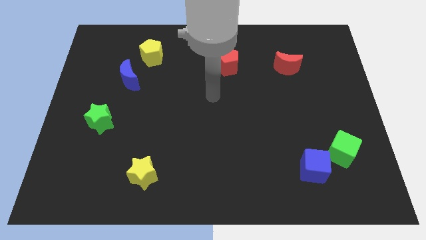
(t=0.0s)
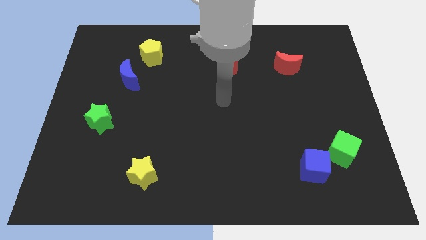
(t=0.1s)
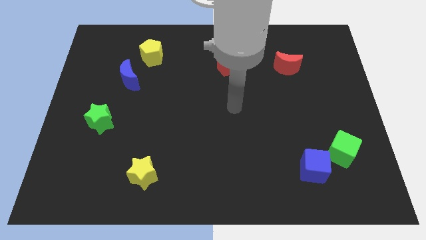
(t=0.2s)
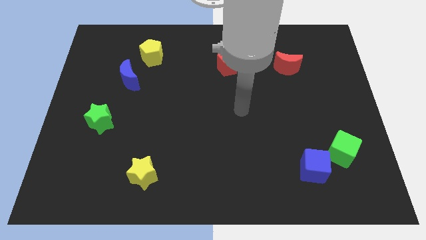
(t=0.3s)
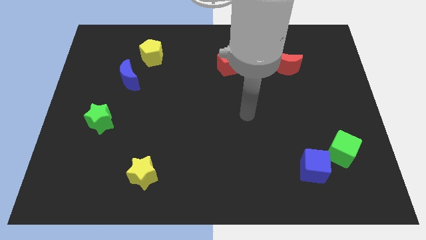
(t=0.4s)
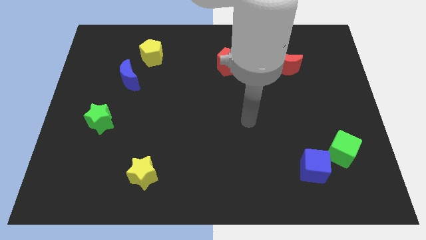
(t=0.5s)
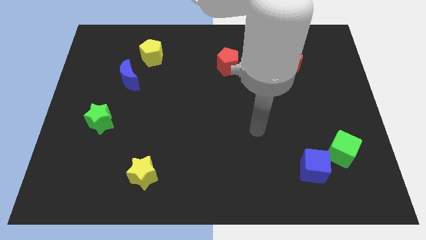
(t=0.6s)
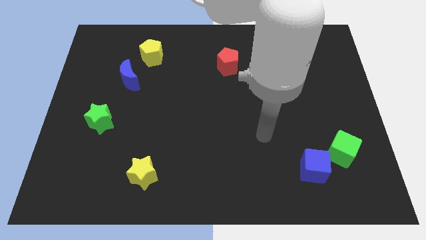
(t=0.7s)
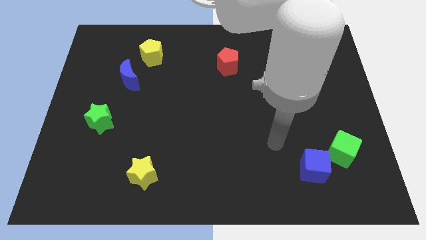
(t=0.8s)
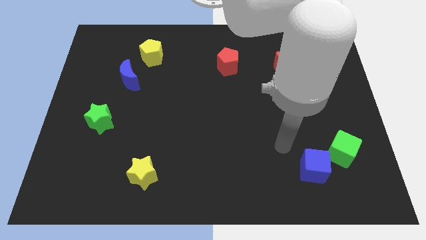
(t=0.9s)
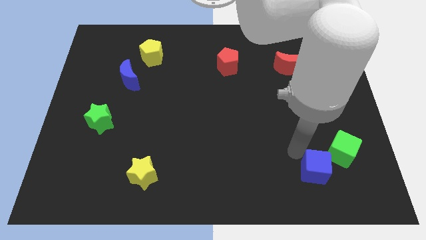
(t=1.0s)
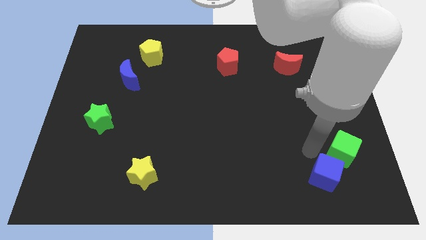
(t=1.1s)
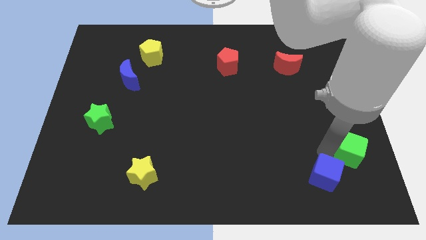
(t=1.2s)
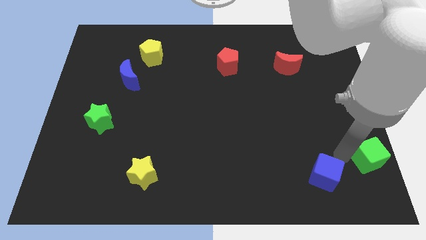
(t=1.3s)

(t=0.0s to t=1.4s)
move the blue cube away from the green cube

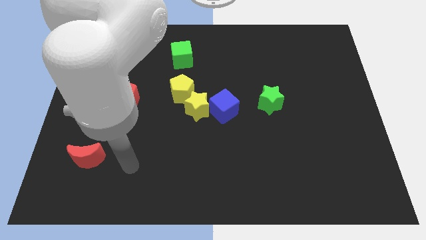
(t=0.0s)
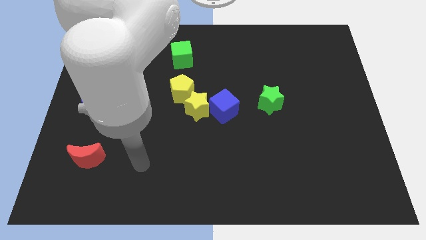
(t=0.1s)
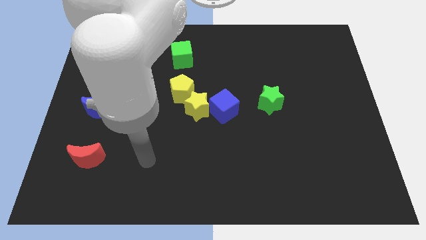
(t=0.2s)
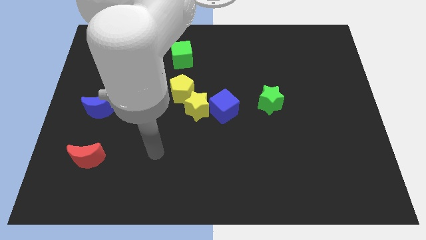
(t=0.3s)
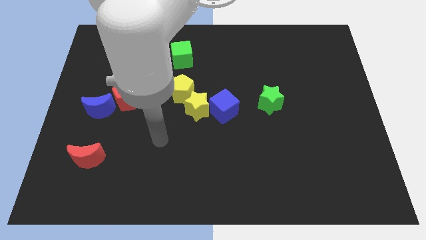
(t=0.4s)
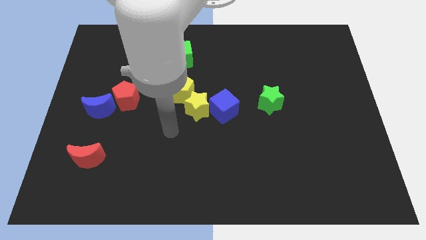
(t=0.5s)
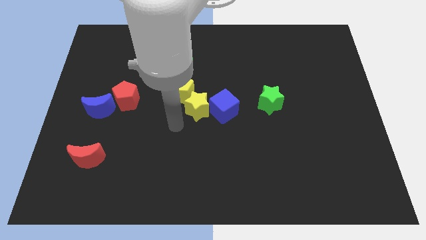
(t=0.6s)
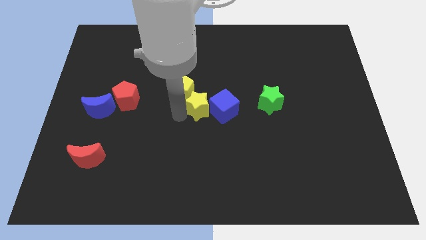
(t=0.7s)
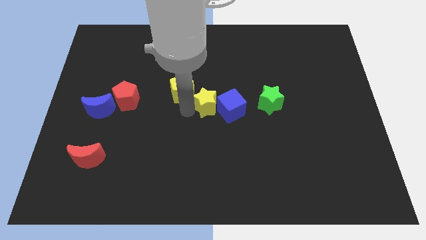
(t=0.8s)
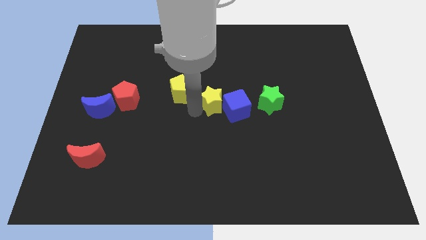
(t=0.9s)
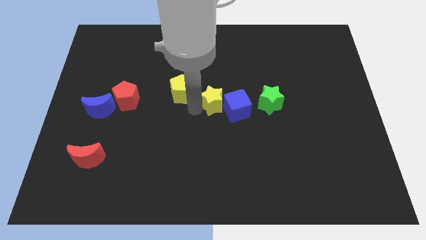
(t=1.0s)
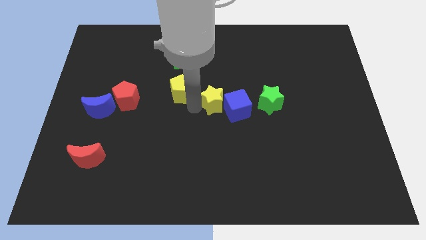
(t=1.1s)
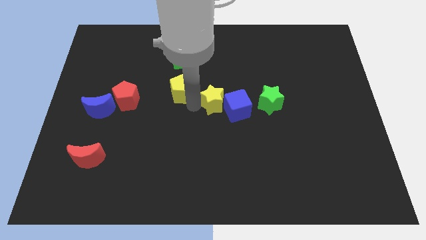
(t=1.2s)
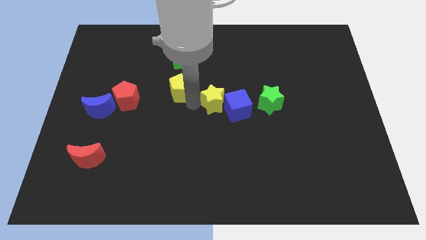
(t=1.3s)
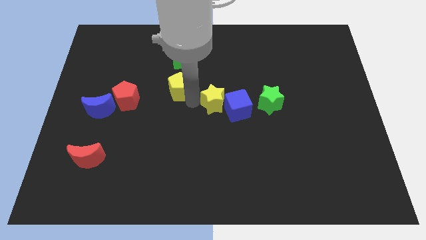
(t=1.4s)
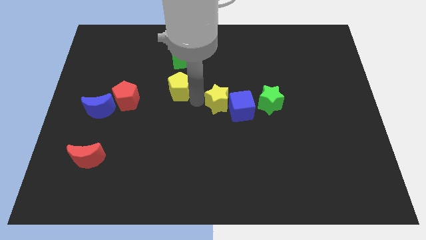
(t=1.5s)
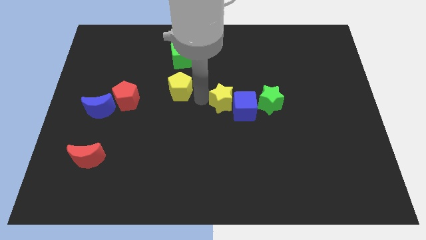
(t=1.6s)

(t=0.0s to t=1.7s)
separate the yellow pentagon from the yellow star

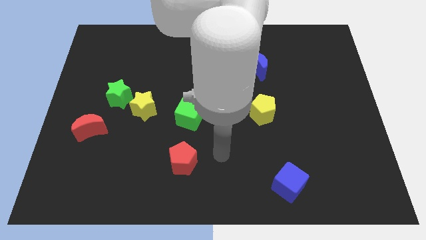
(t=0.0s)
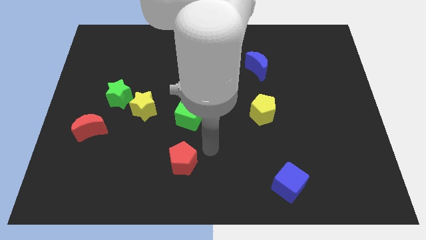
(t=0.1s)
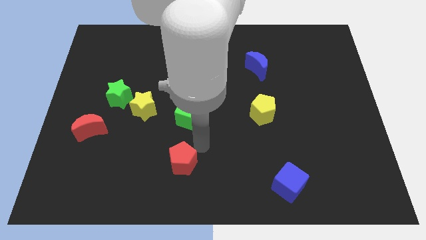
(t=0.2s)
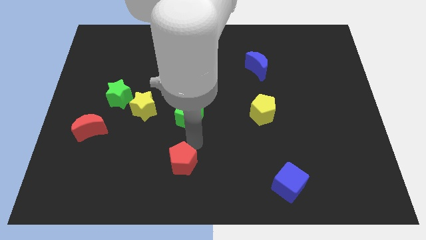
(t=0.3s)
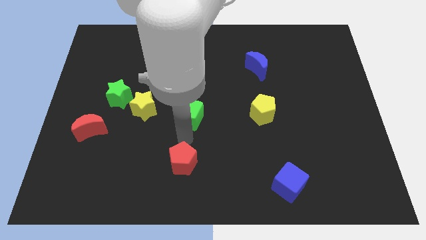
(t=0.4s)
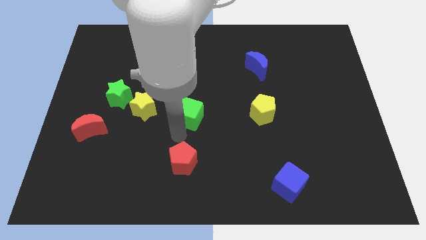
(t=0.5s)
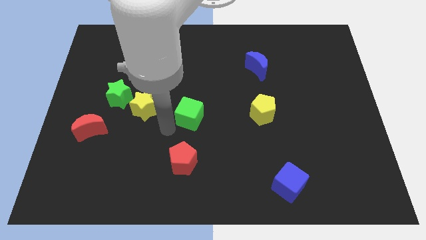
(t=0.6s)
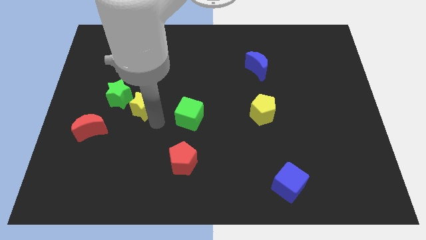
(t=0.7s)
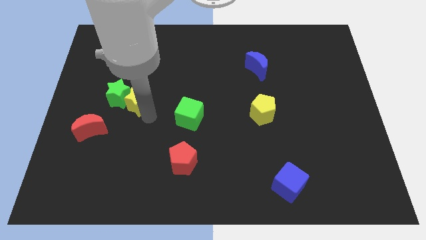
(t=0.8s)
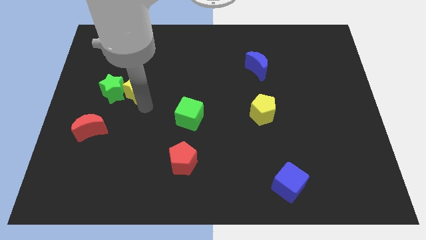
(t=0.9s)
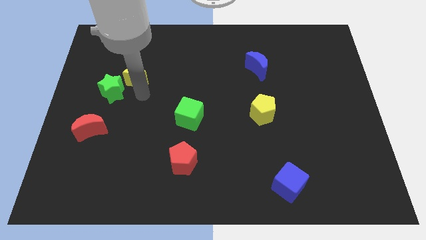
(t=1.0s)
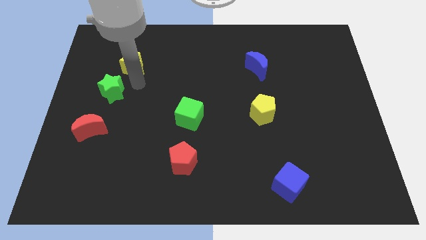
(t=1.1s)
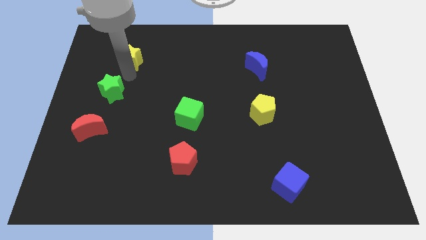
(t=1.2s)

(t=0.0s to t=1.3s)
move the green star away from the yellow star

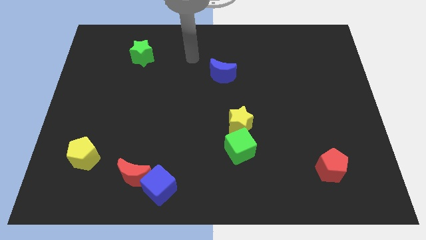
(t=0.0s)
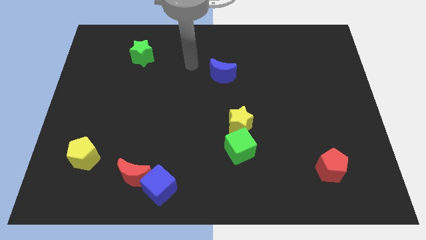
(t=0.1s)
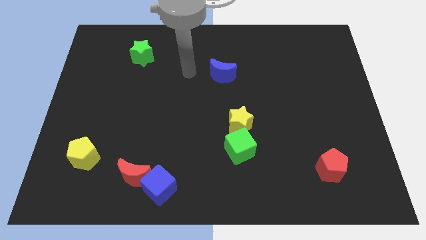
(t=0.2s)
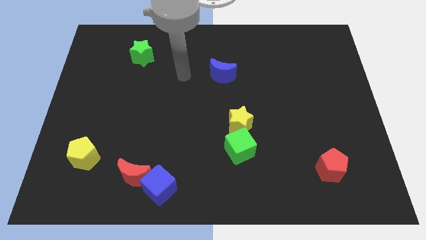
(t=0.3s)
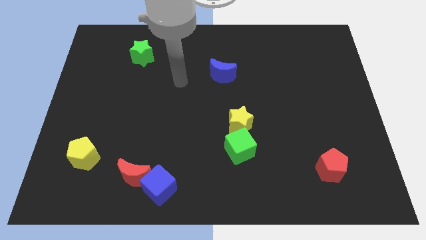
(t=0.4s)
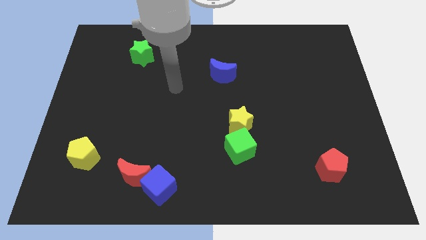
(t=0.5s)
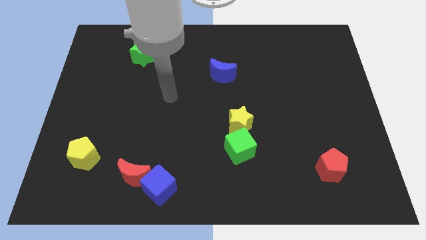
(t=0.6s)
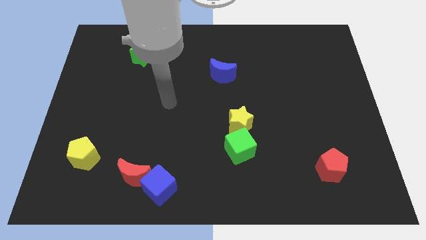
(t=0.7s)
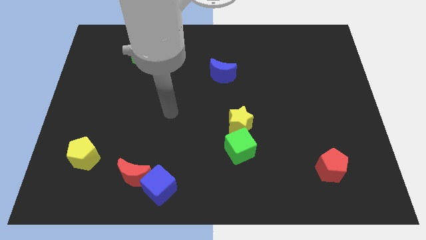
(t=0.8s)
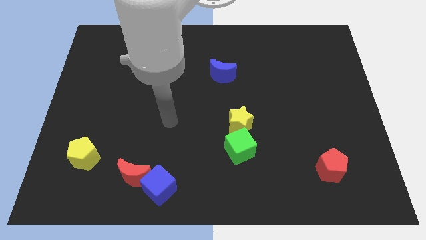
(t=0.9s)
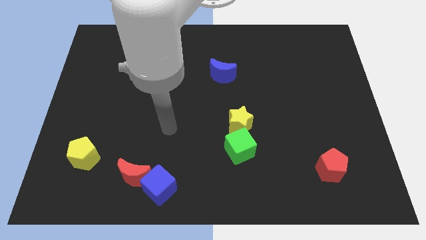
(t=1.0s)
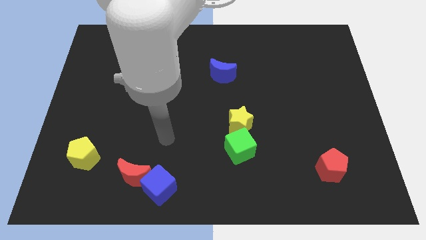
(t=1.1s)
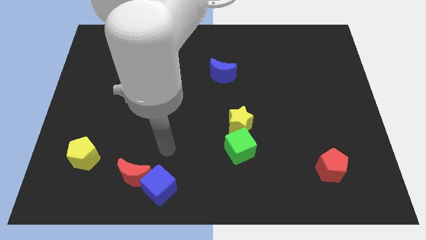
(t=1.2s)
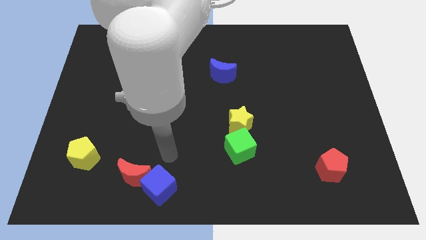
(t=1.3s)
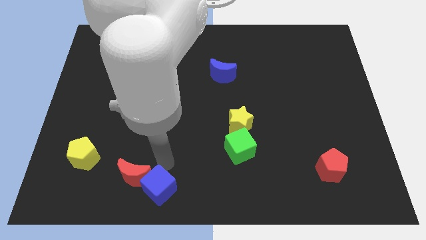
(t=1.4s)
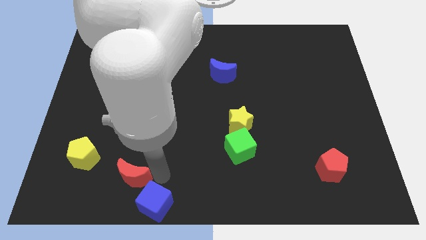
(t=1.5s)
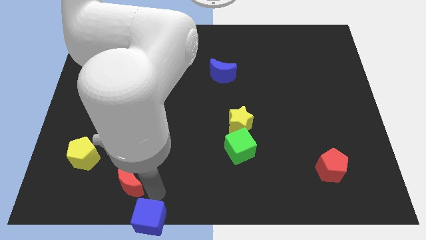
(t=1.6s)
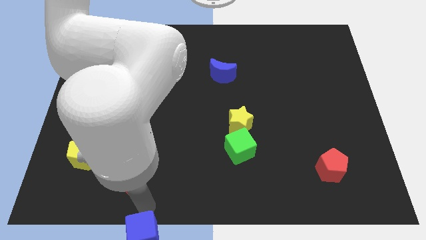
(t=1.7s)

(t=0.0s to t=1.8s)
separate the red moon from the blue cube

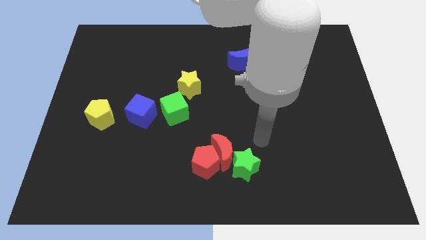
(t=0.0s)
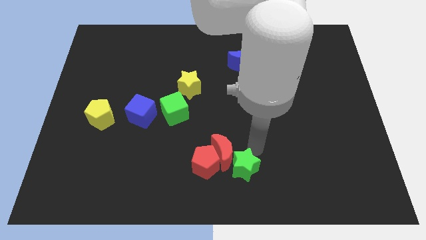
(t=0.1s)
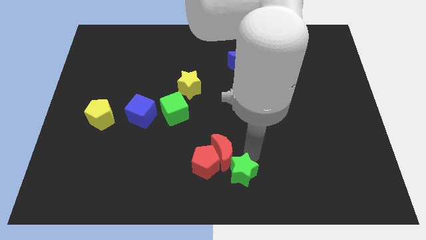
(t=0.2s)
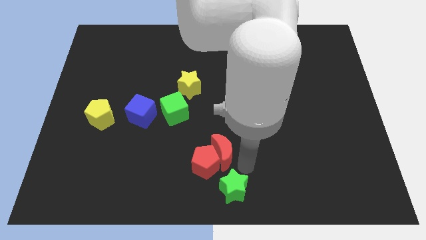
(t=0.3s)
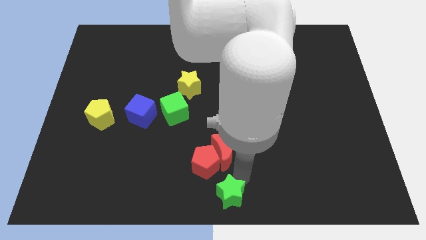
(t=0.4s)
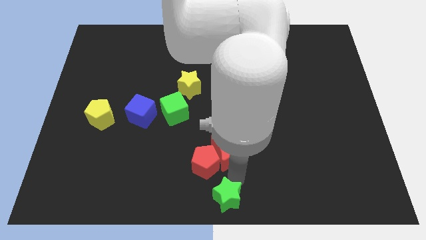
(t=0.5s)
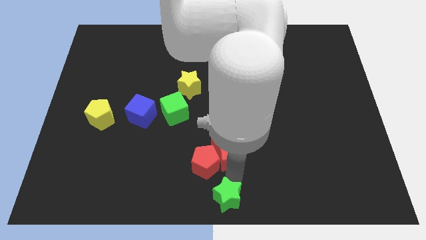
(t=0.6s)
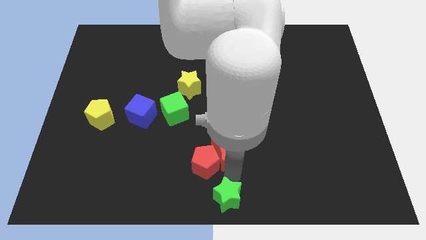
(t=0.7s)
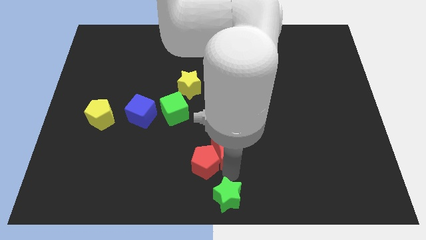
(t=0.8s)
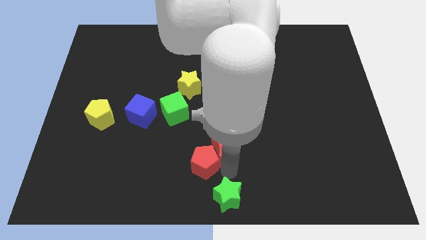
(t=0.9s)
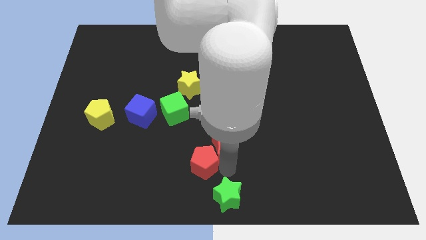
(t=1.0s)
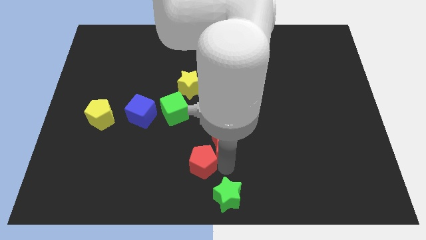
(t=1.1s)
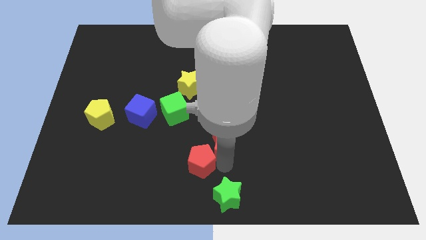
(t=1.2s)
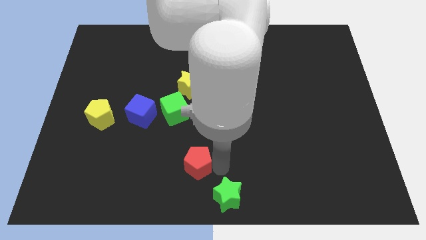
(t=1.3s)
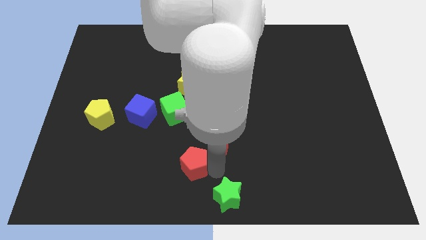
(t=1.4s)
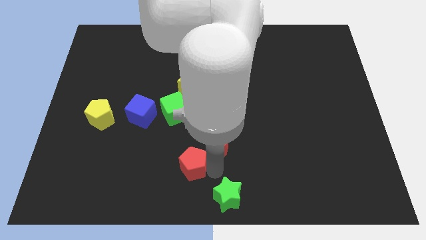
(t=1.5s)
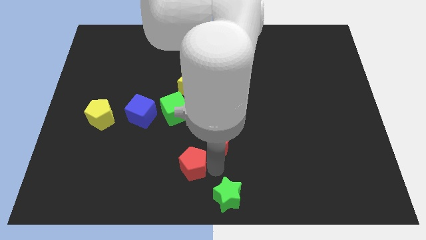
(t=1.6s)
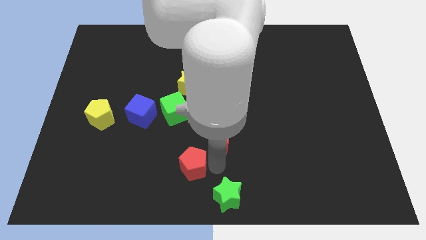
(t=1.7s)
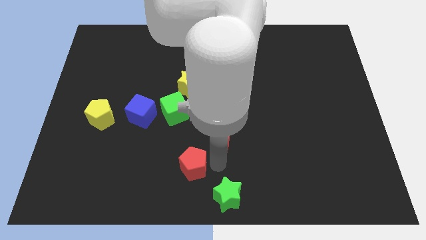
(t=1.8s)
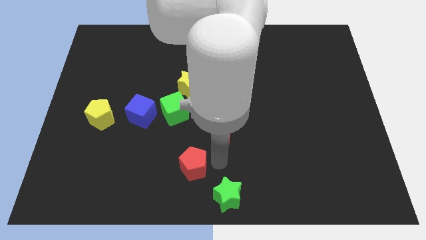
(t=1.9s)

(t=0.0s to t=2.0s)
separate the red moon from the red pentagon and green star

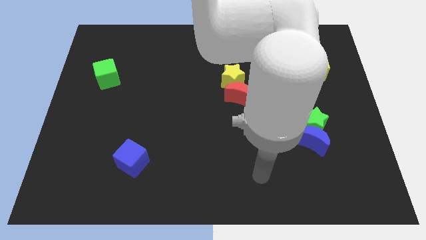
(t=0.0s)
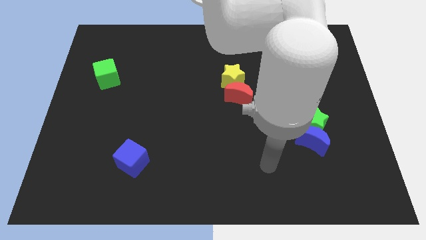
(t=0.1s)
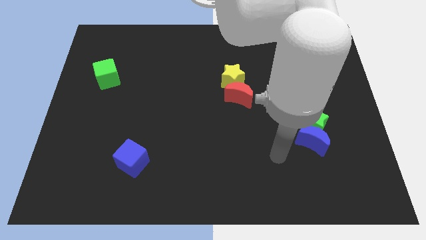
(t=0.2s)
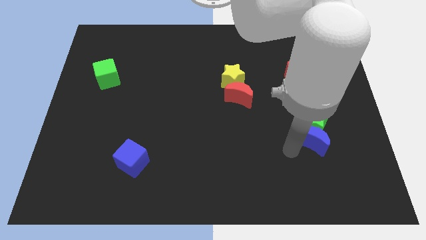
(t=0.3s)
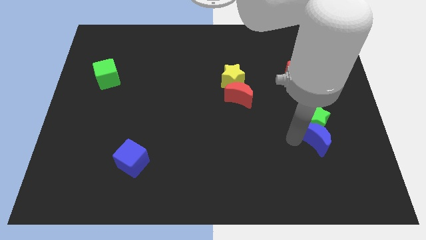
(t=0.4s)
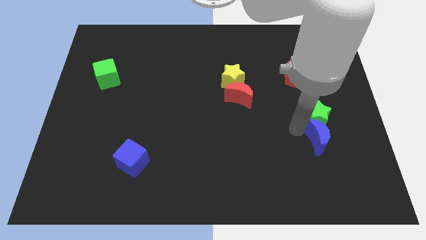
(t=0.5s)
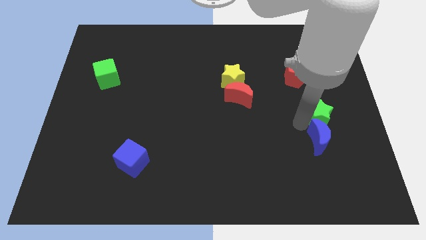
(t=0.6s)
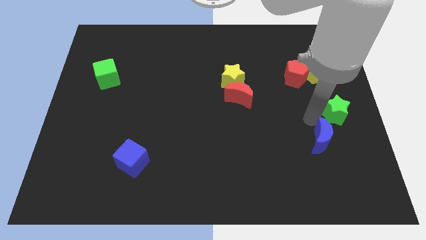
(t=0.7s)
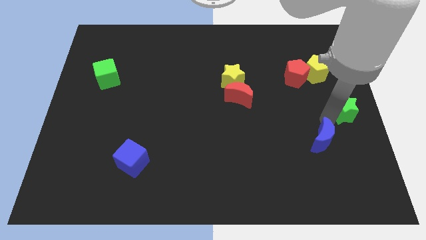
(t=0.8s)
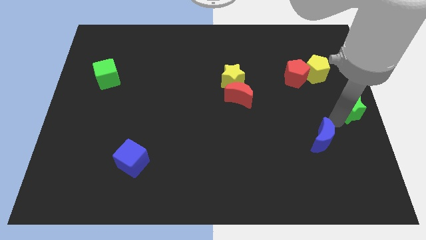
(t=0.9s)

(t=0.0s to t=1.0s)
separate the blue moon from the green star

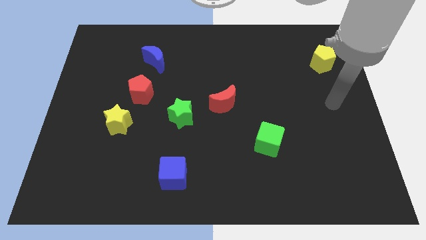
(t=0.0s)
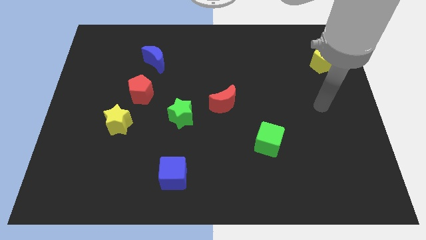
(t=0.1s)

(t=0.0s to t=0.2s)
separate the red pentagon from the yellow star
